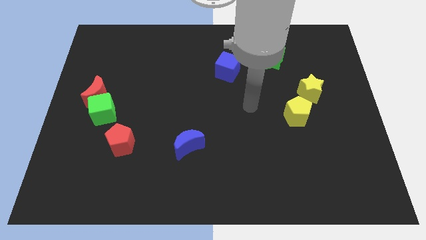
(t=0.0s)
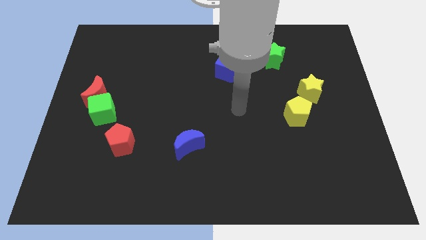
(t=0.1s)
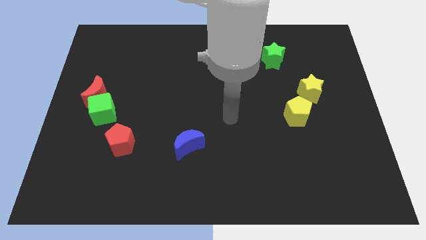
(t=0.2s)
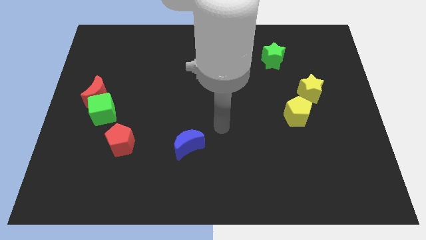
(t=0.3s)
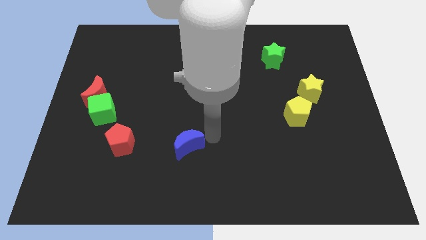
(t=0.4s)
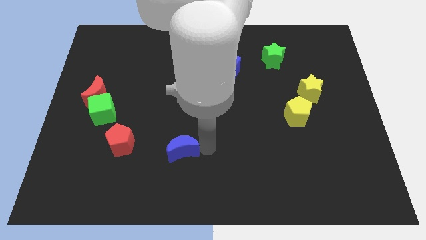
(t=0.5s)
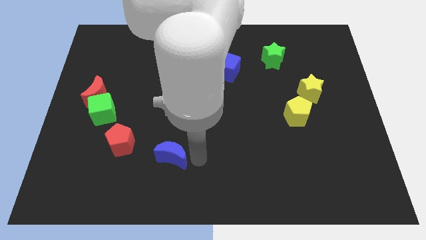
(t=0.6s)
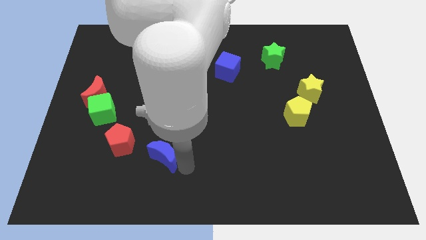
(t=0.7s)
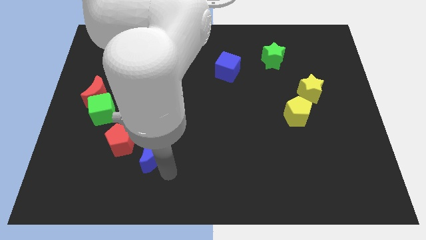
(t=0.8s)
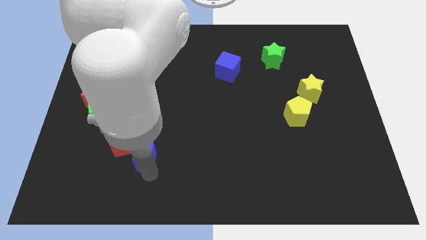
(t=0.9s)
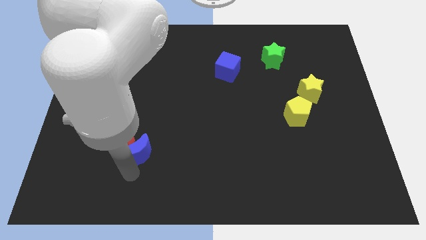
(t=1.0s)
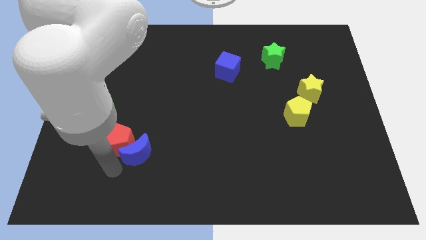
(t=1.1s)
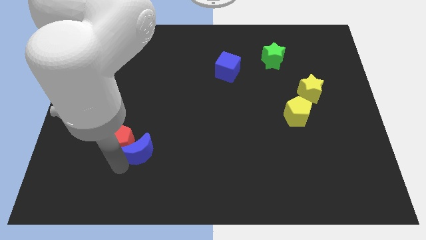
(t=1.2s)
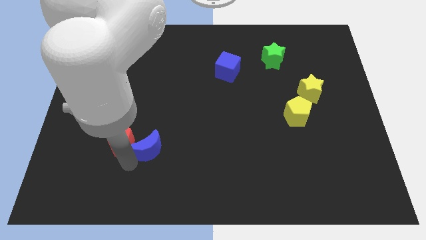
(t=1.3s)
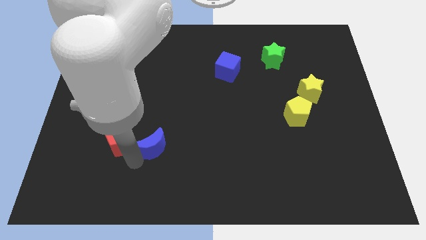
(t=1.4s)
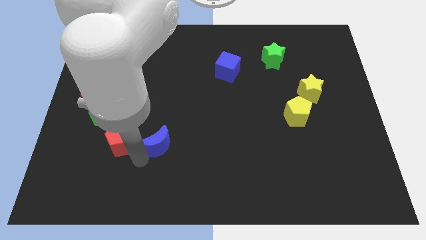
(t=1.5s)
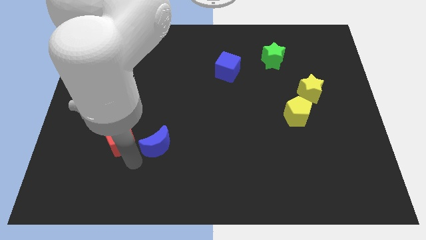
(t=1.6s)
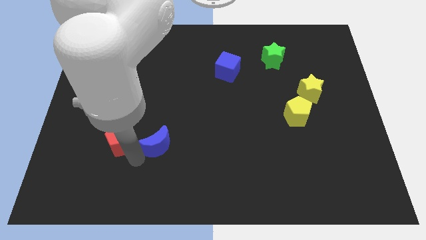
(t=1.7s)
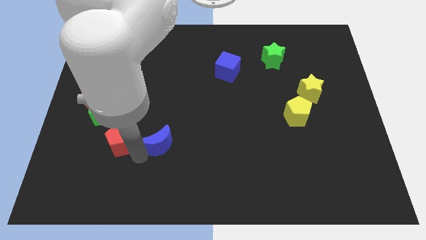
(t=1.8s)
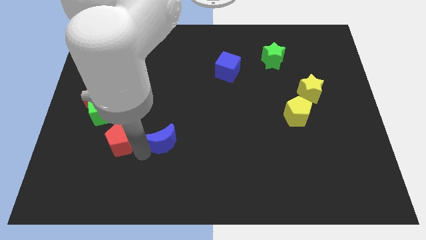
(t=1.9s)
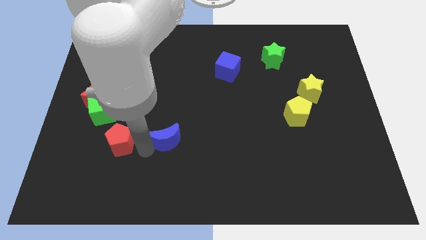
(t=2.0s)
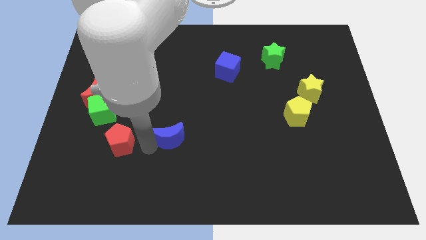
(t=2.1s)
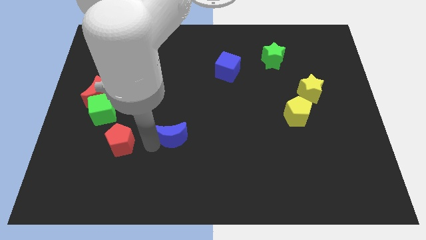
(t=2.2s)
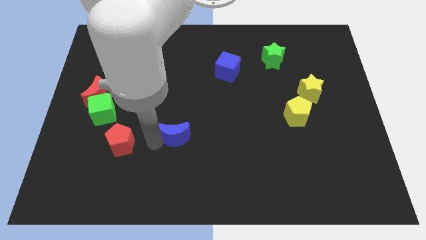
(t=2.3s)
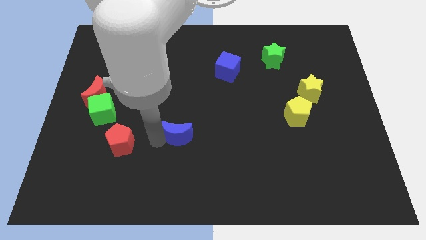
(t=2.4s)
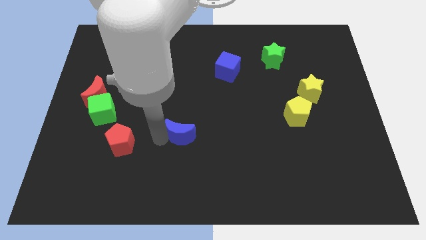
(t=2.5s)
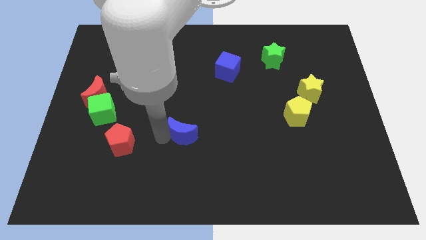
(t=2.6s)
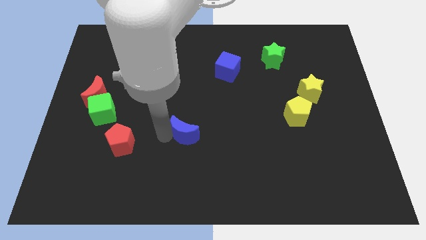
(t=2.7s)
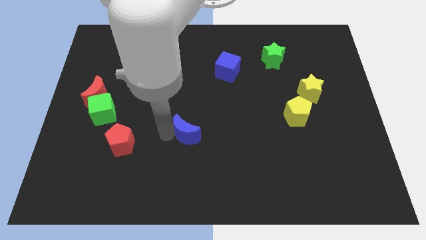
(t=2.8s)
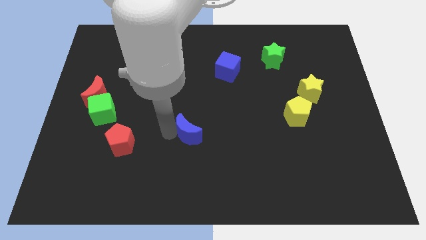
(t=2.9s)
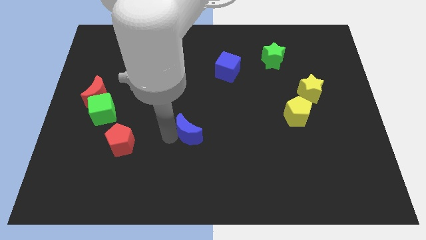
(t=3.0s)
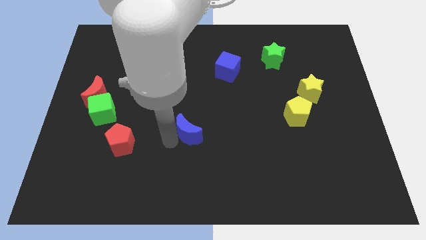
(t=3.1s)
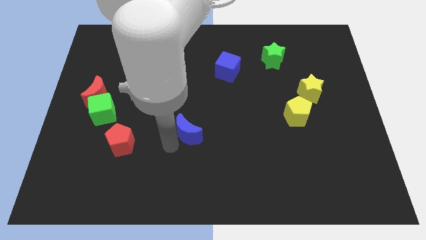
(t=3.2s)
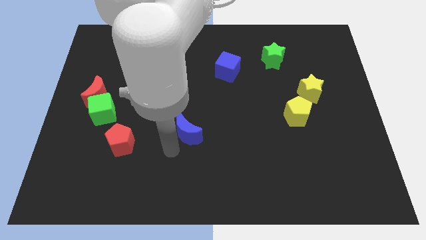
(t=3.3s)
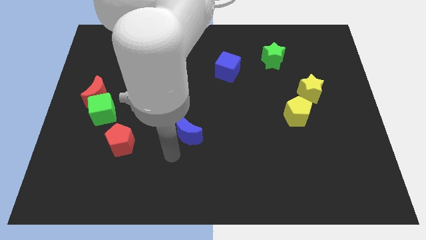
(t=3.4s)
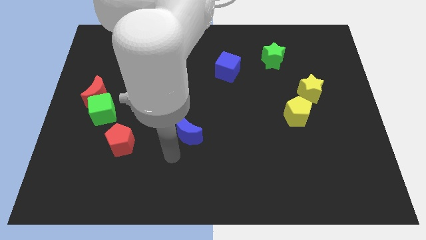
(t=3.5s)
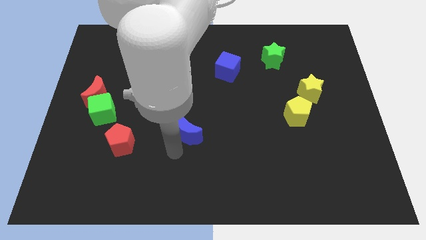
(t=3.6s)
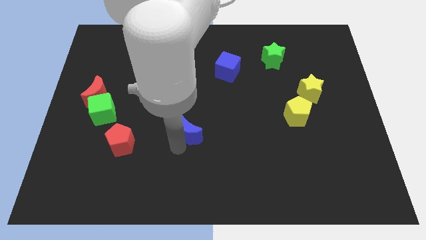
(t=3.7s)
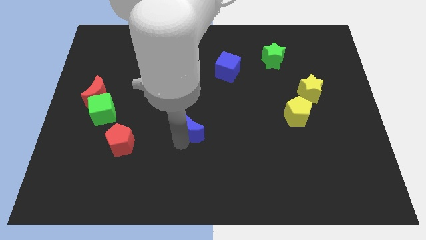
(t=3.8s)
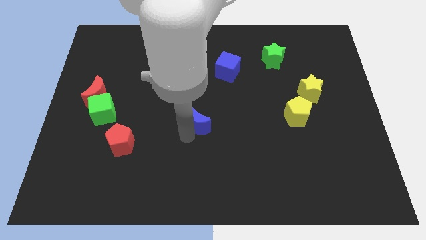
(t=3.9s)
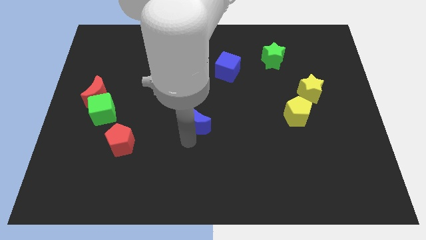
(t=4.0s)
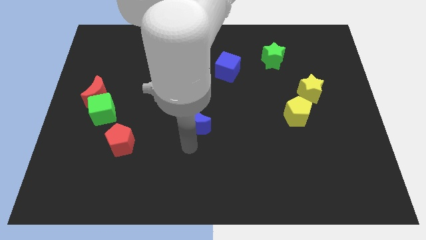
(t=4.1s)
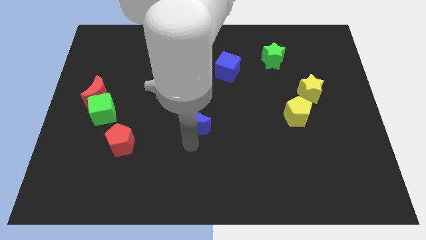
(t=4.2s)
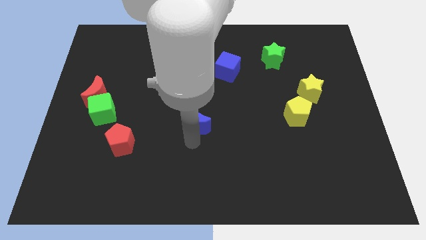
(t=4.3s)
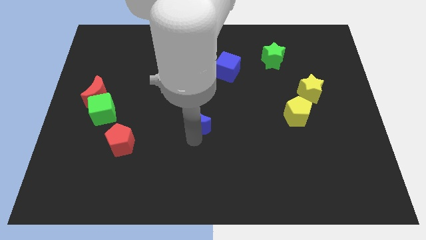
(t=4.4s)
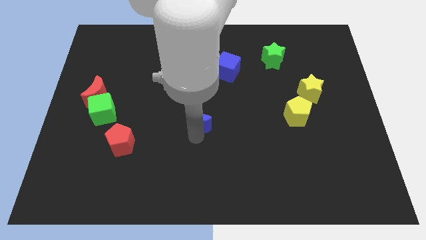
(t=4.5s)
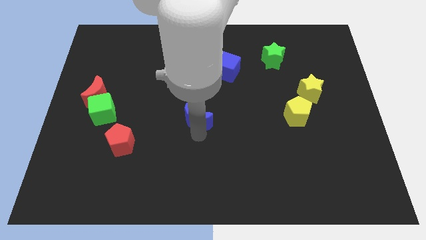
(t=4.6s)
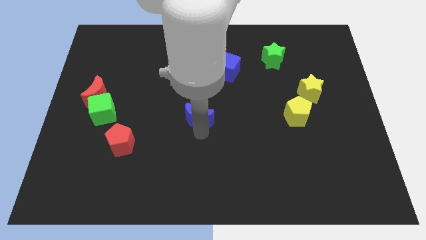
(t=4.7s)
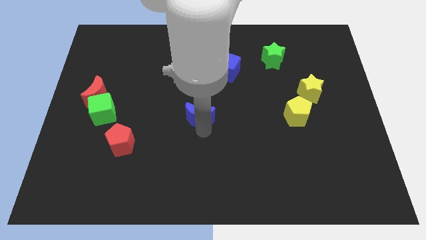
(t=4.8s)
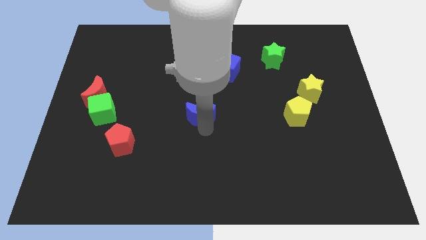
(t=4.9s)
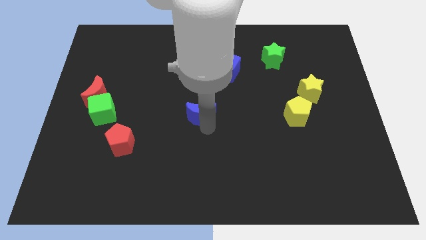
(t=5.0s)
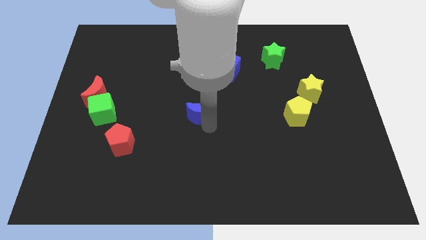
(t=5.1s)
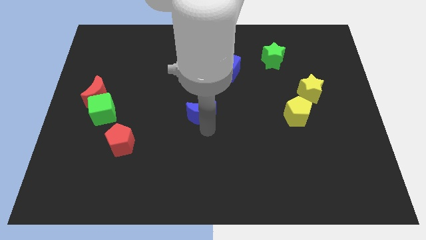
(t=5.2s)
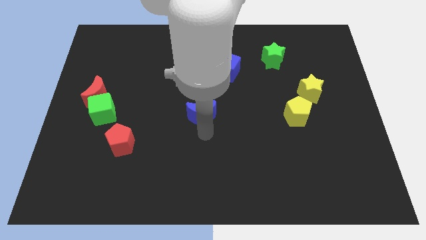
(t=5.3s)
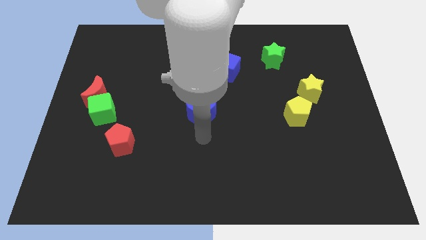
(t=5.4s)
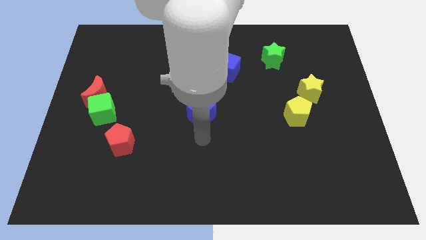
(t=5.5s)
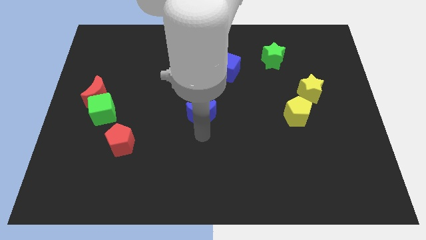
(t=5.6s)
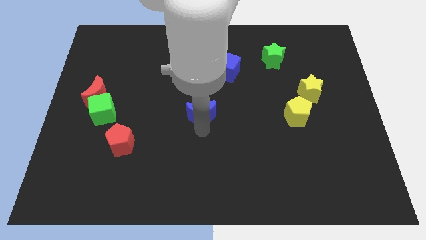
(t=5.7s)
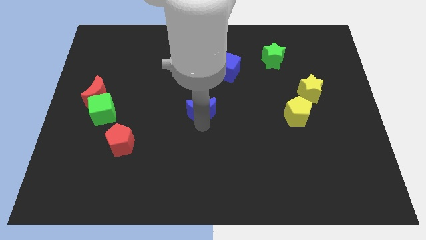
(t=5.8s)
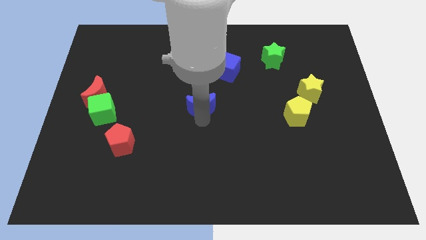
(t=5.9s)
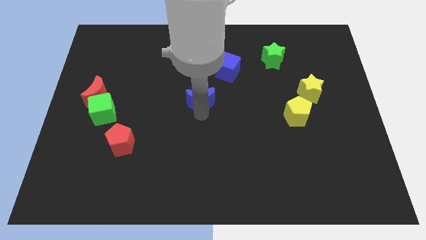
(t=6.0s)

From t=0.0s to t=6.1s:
put the blue moon to the bottom left side of the blue cube
